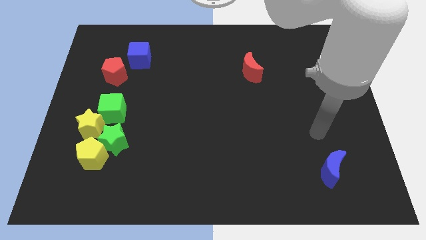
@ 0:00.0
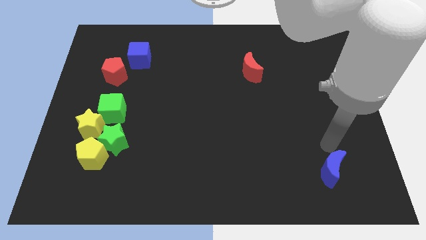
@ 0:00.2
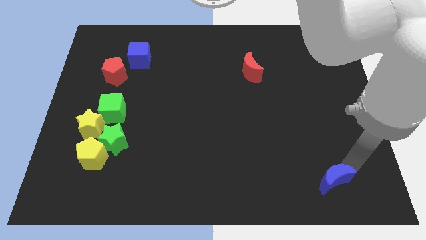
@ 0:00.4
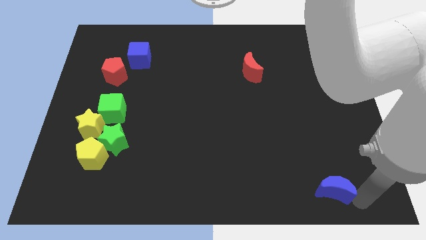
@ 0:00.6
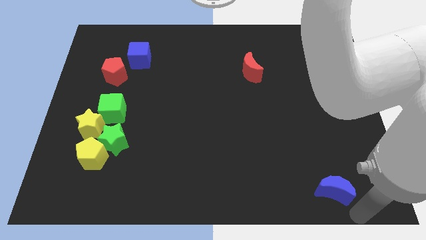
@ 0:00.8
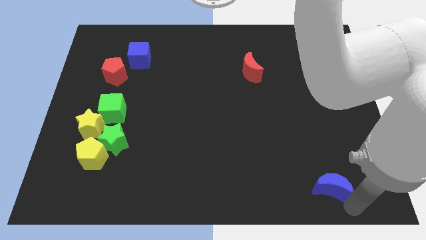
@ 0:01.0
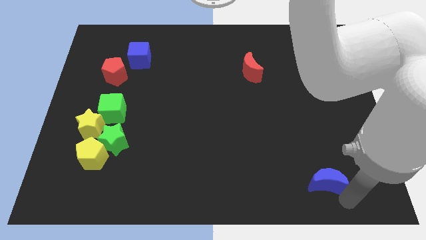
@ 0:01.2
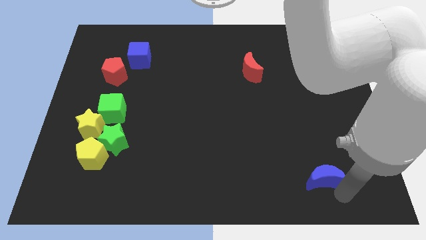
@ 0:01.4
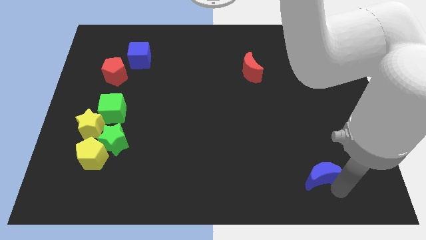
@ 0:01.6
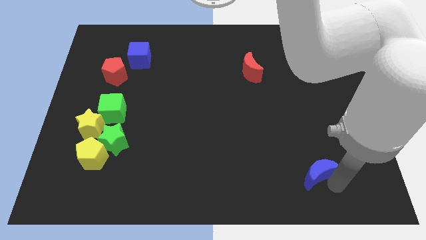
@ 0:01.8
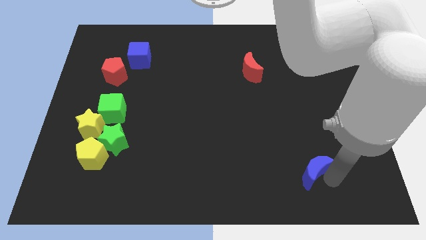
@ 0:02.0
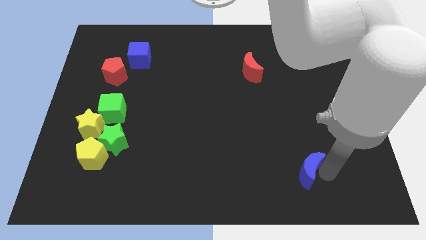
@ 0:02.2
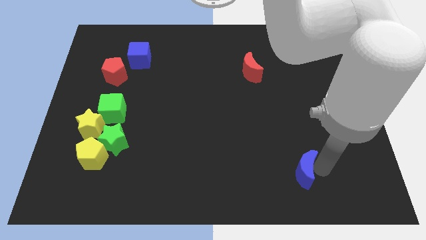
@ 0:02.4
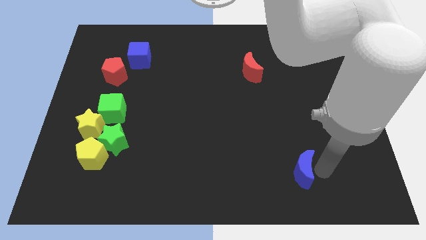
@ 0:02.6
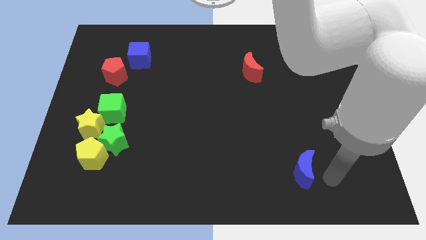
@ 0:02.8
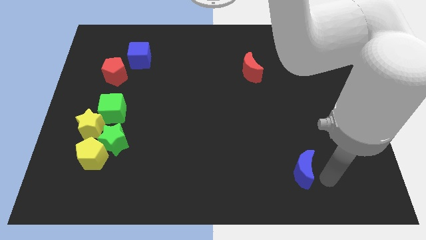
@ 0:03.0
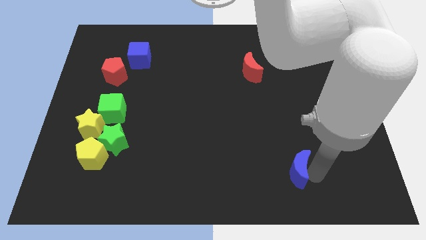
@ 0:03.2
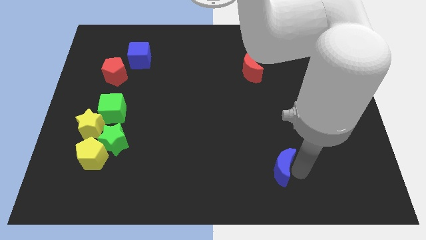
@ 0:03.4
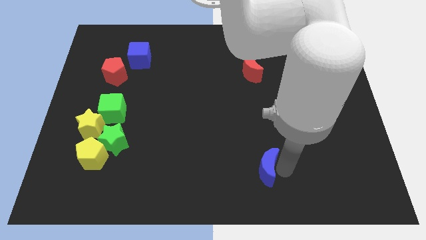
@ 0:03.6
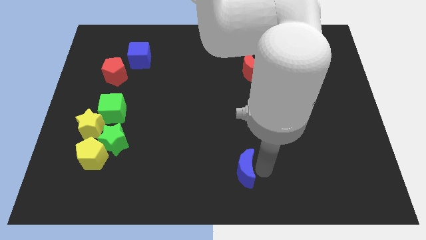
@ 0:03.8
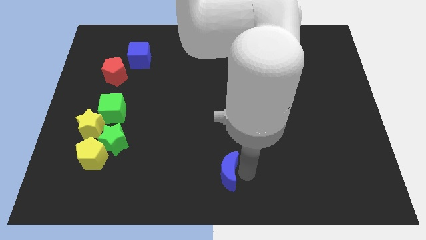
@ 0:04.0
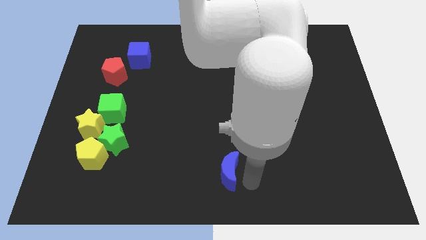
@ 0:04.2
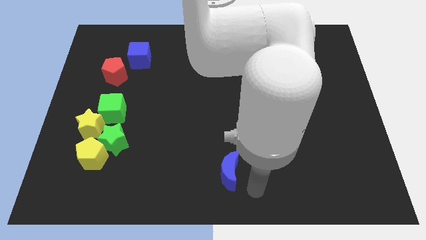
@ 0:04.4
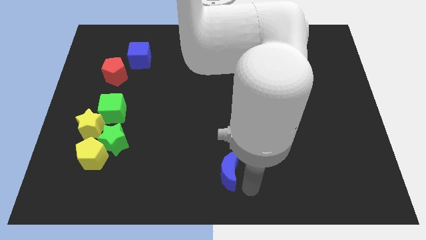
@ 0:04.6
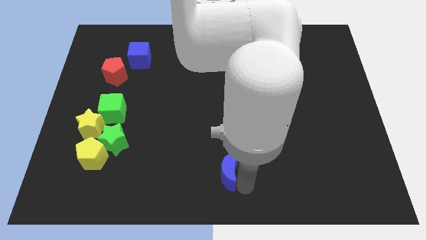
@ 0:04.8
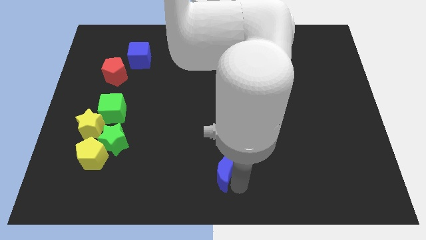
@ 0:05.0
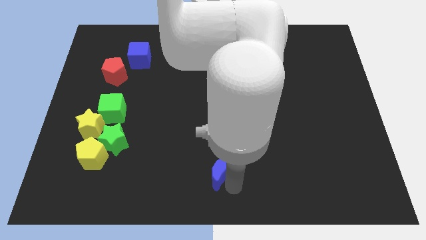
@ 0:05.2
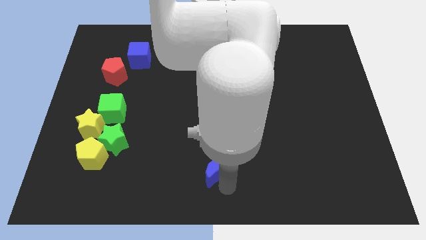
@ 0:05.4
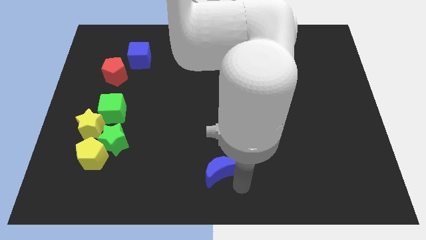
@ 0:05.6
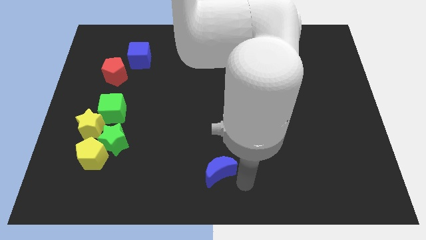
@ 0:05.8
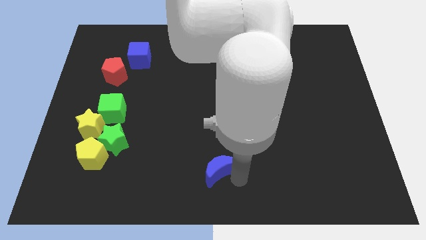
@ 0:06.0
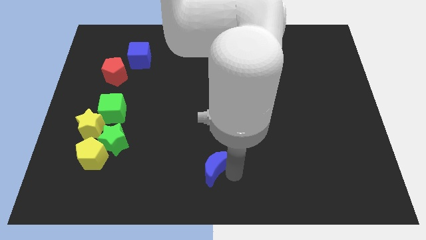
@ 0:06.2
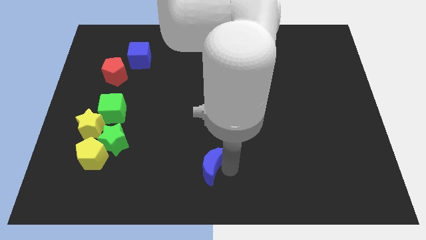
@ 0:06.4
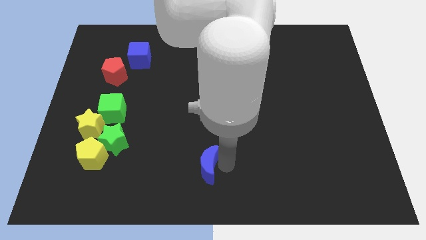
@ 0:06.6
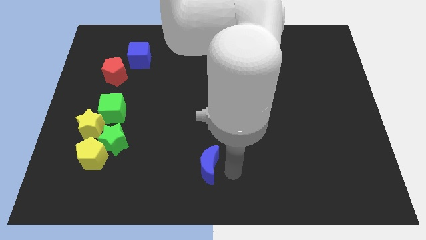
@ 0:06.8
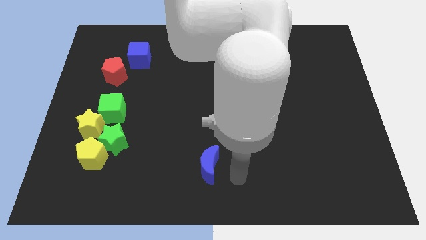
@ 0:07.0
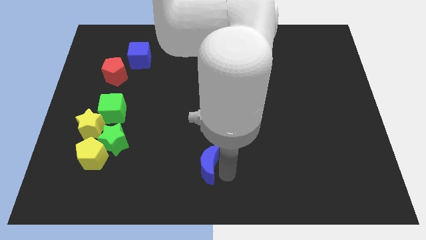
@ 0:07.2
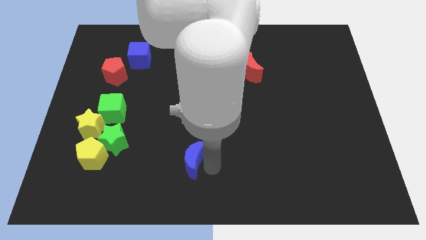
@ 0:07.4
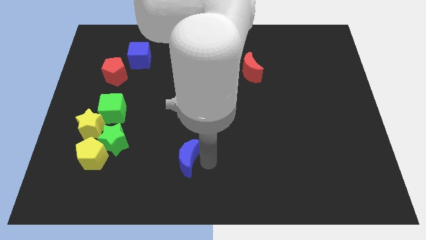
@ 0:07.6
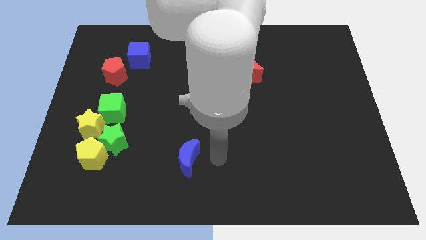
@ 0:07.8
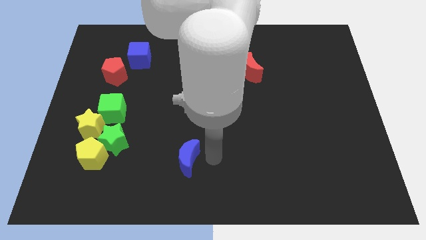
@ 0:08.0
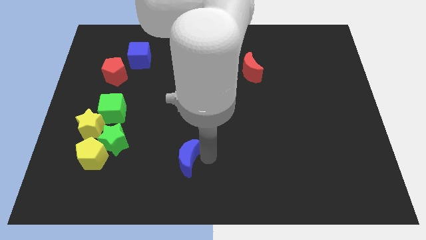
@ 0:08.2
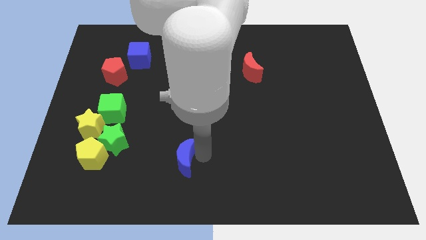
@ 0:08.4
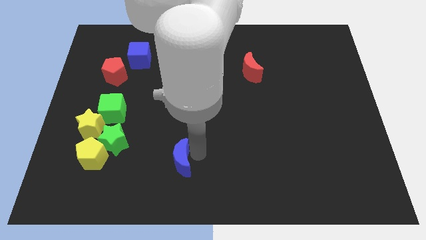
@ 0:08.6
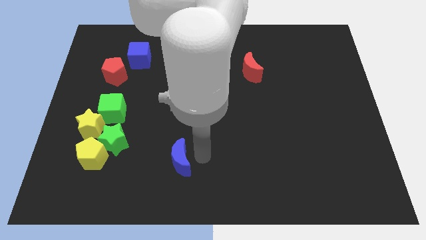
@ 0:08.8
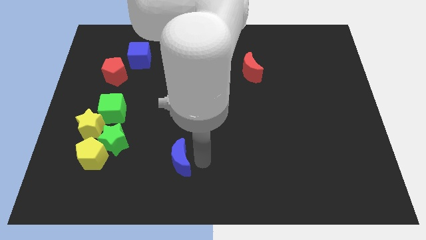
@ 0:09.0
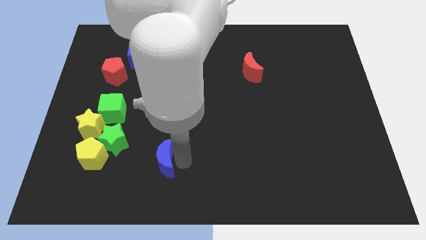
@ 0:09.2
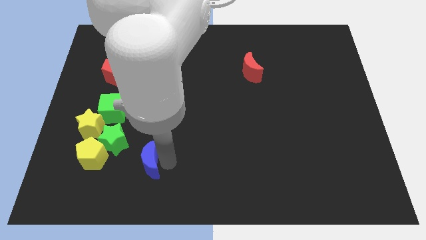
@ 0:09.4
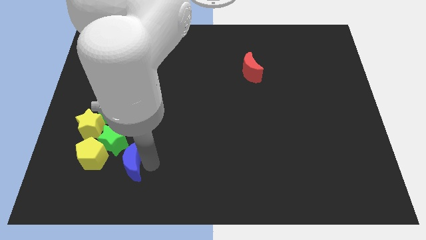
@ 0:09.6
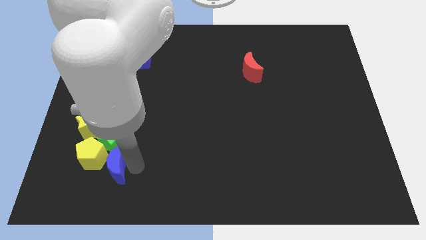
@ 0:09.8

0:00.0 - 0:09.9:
move the blue moon to the yellow pentagon

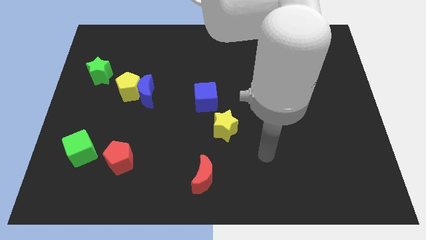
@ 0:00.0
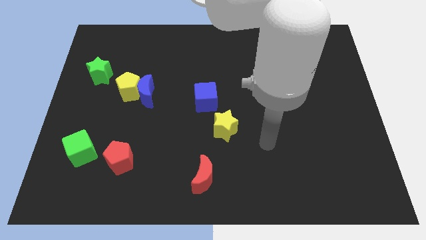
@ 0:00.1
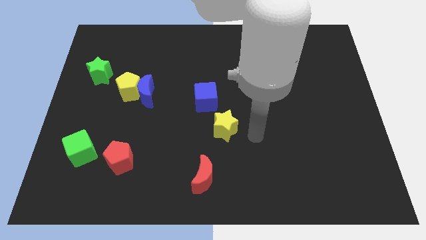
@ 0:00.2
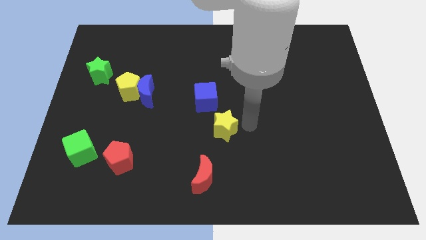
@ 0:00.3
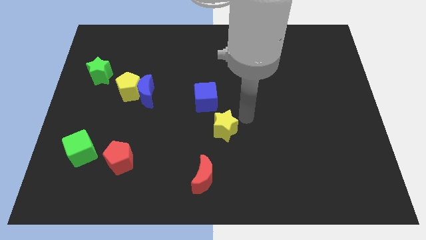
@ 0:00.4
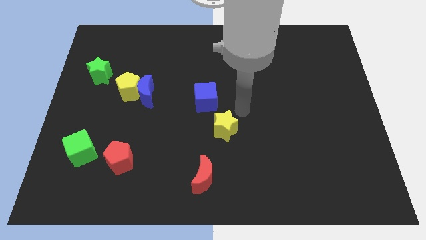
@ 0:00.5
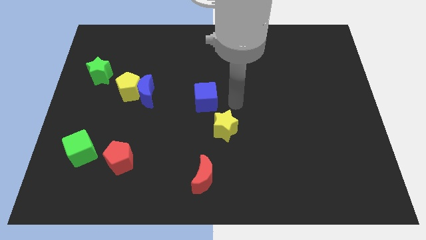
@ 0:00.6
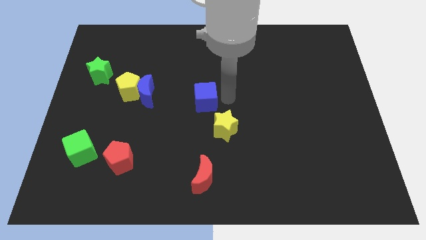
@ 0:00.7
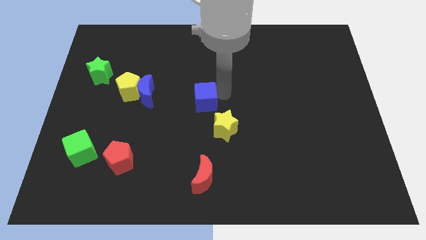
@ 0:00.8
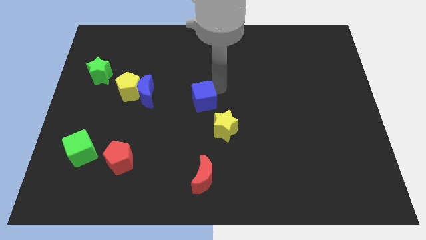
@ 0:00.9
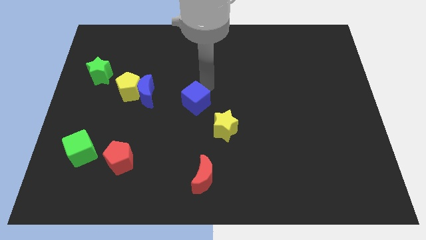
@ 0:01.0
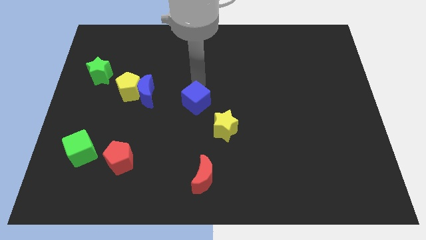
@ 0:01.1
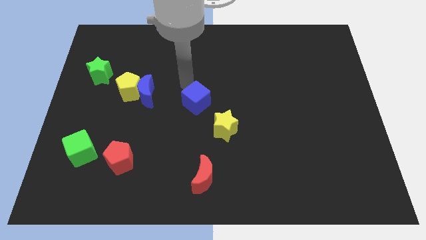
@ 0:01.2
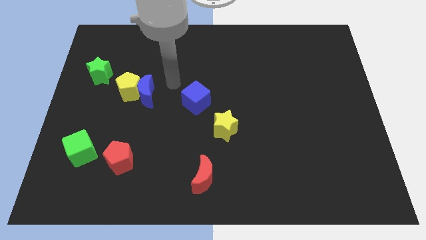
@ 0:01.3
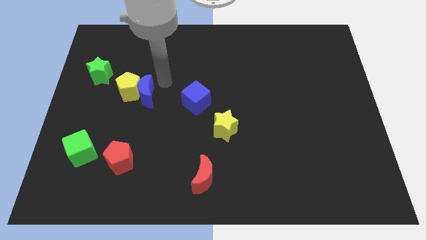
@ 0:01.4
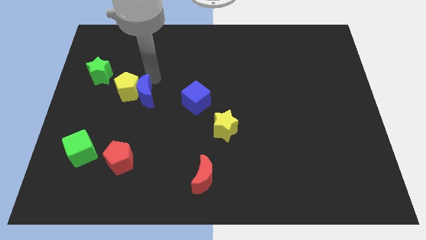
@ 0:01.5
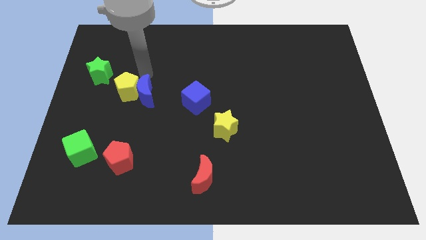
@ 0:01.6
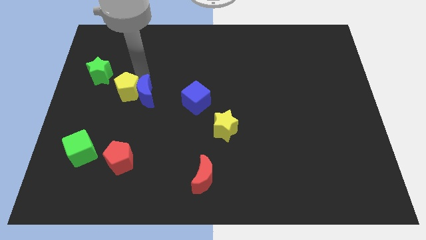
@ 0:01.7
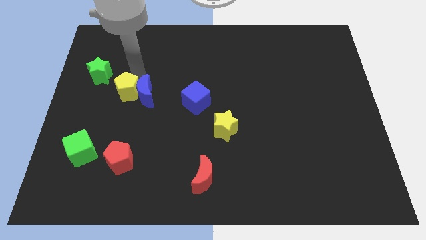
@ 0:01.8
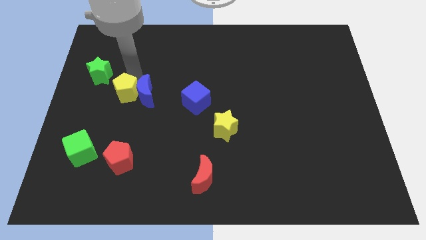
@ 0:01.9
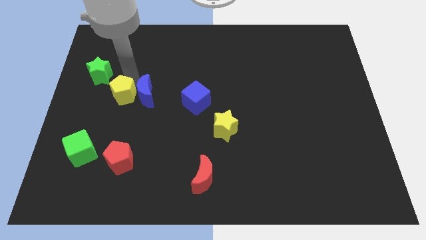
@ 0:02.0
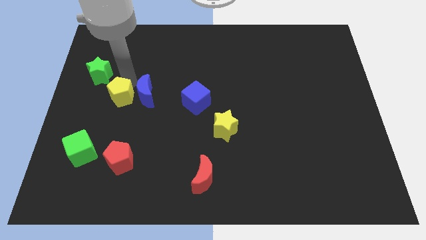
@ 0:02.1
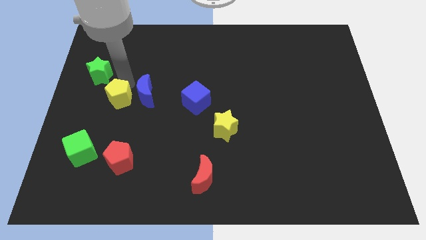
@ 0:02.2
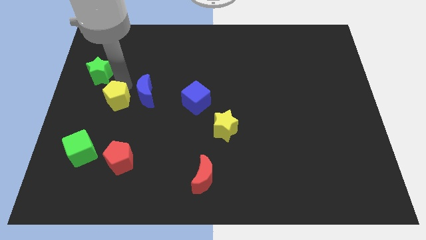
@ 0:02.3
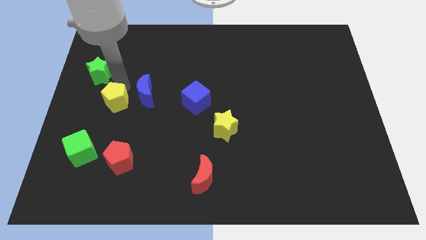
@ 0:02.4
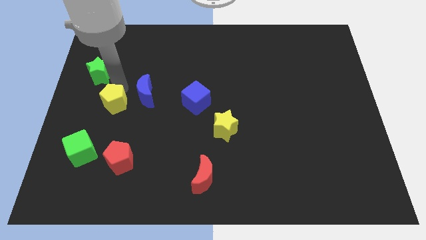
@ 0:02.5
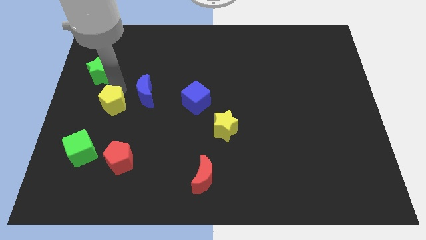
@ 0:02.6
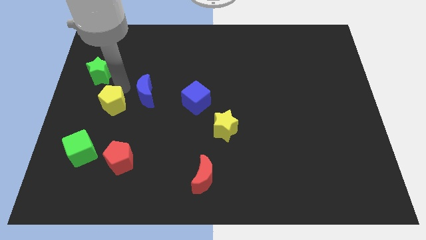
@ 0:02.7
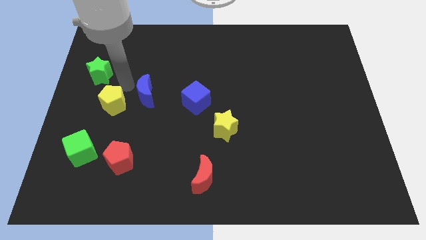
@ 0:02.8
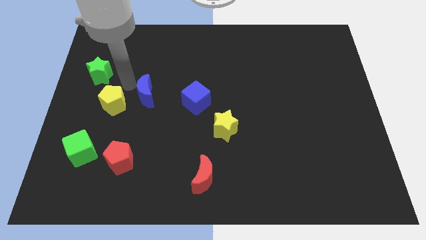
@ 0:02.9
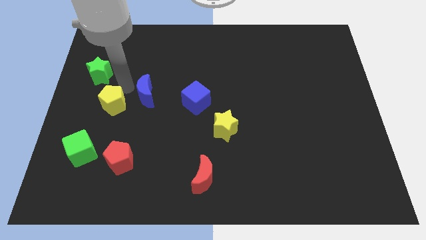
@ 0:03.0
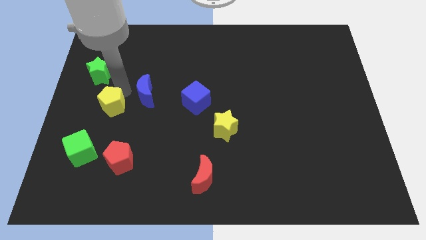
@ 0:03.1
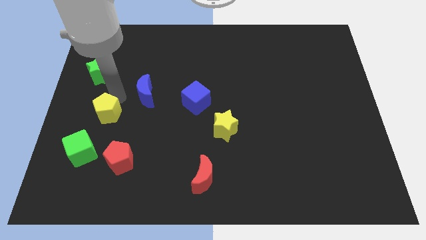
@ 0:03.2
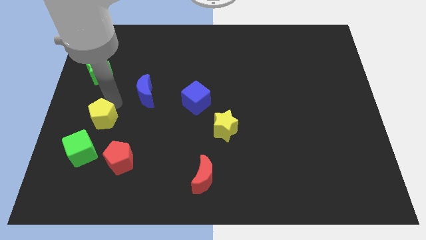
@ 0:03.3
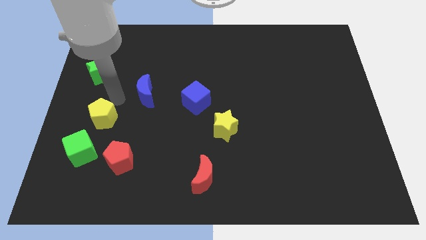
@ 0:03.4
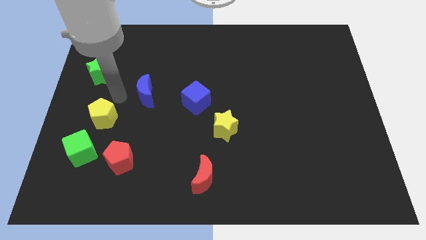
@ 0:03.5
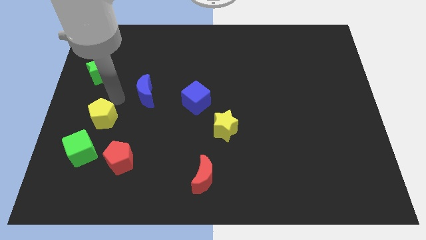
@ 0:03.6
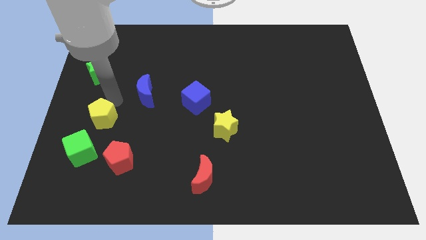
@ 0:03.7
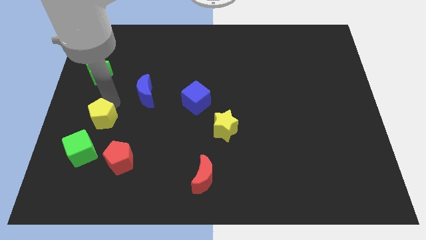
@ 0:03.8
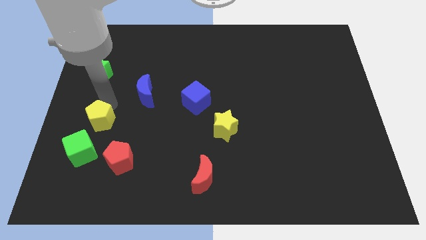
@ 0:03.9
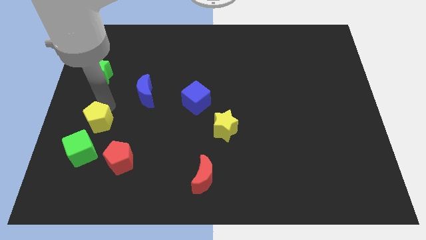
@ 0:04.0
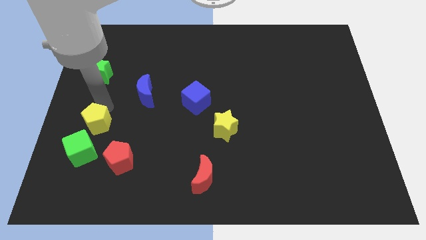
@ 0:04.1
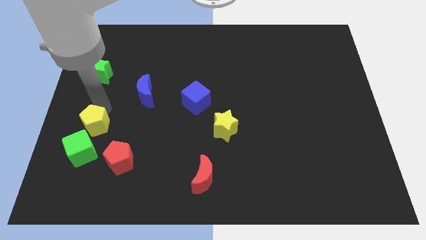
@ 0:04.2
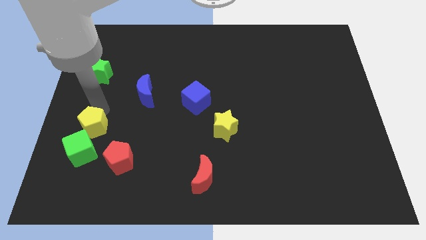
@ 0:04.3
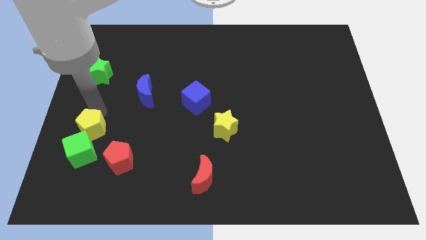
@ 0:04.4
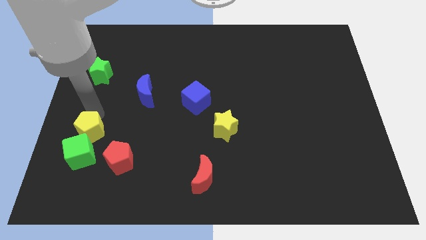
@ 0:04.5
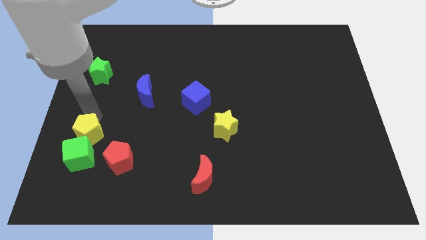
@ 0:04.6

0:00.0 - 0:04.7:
push the yellow pentagon next to the green cube
